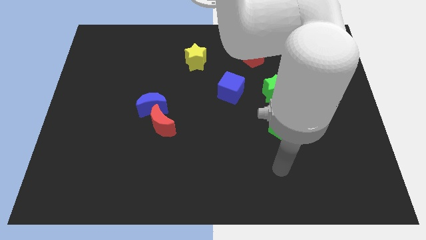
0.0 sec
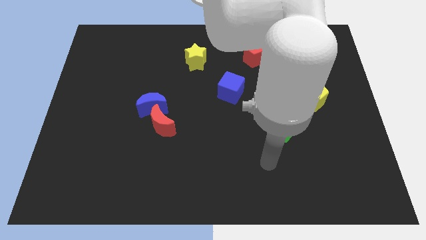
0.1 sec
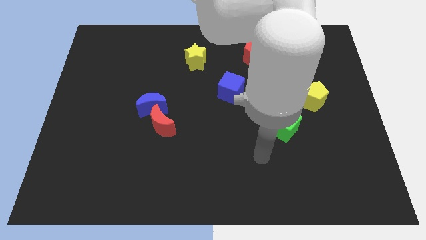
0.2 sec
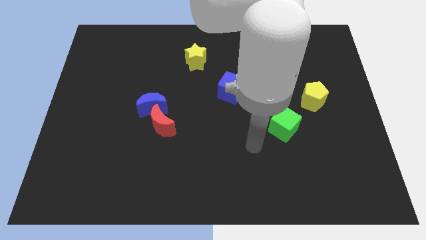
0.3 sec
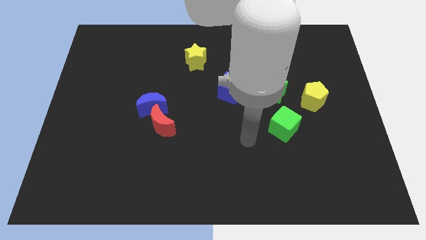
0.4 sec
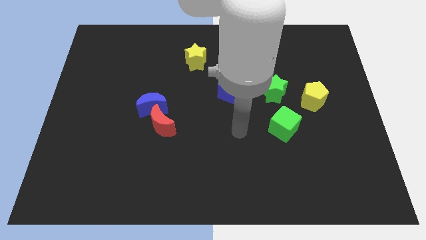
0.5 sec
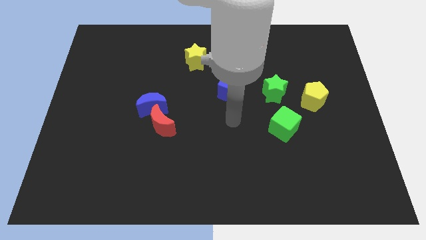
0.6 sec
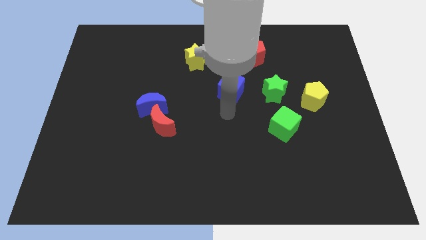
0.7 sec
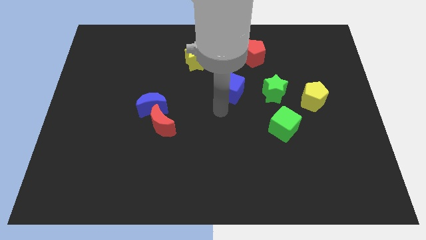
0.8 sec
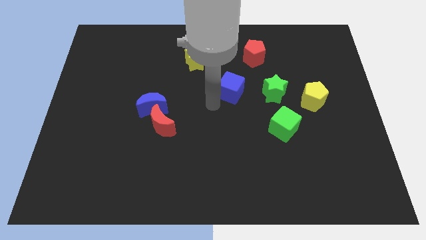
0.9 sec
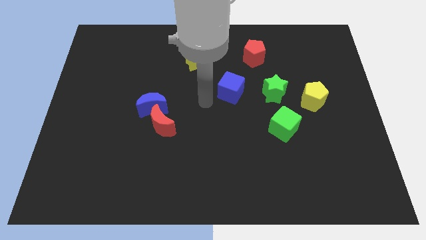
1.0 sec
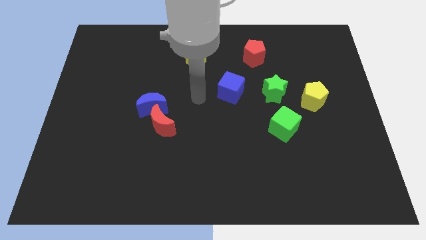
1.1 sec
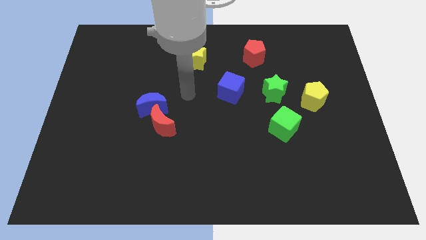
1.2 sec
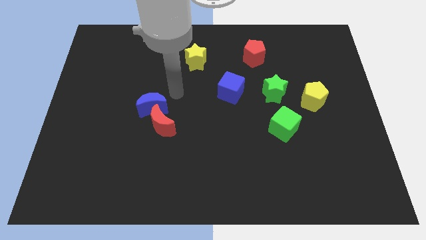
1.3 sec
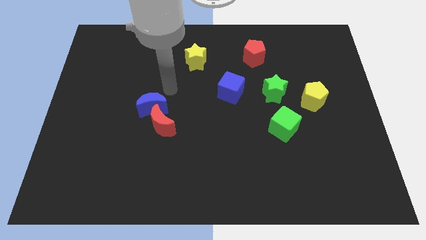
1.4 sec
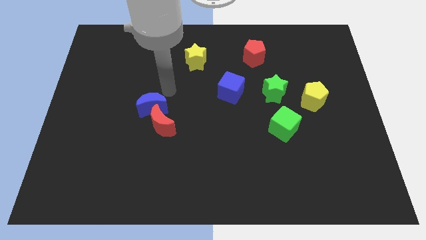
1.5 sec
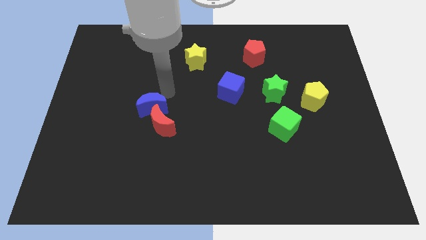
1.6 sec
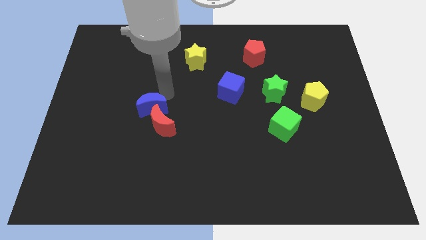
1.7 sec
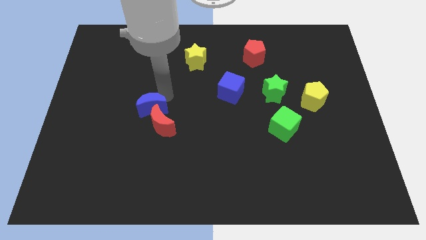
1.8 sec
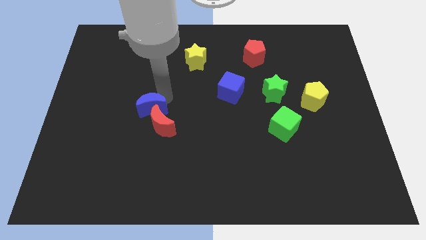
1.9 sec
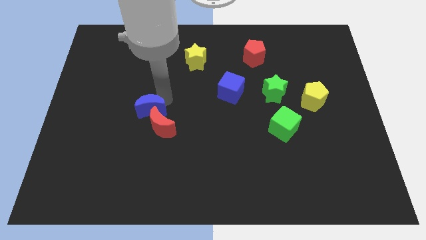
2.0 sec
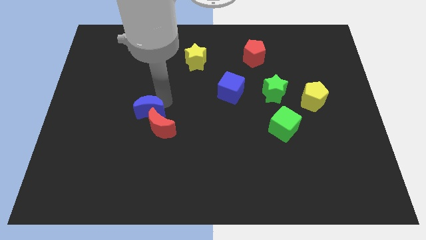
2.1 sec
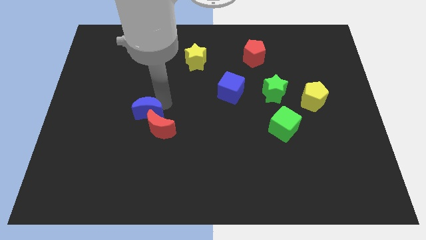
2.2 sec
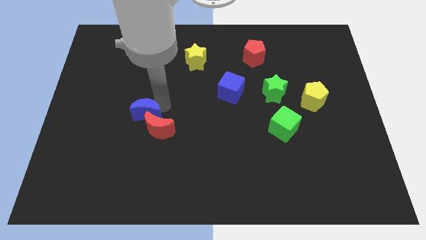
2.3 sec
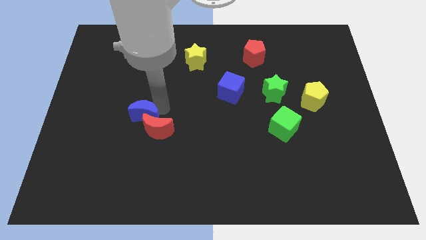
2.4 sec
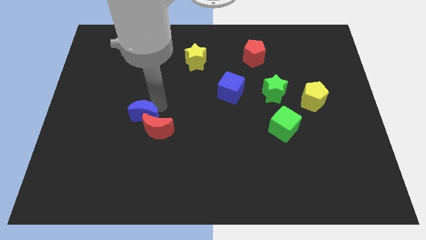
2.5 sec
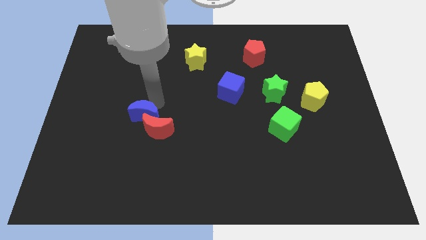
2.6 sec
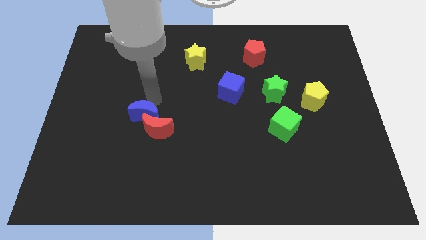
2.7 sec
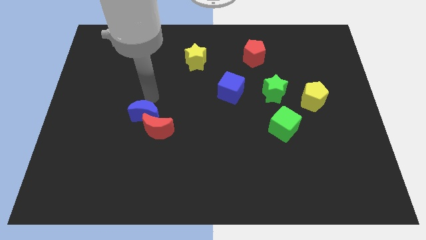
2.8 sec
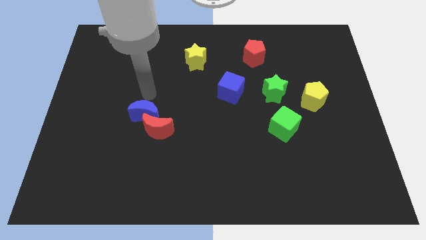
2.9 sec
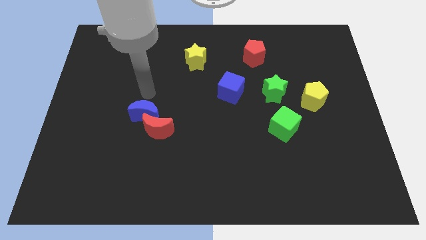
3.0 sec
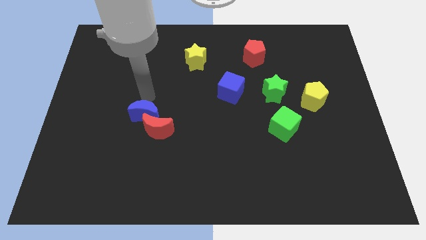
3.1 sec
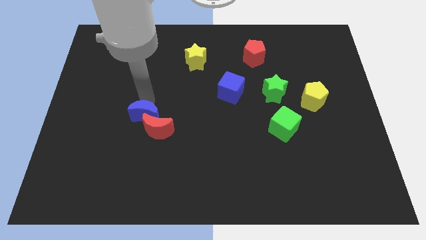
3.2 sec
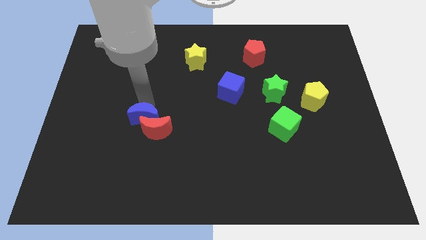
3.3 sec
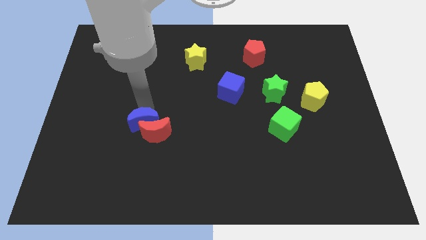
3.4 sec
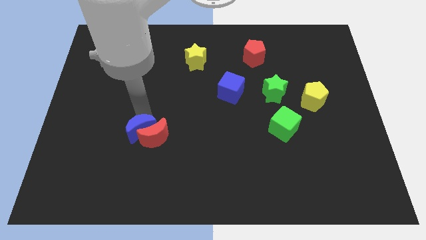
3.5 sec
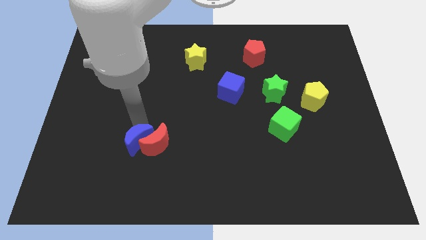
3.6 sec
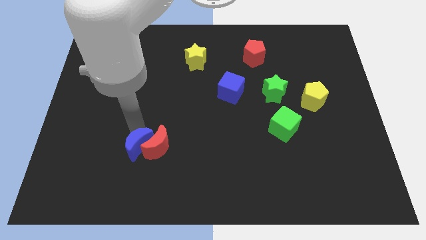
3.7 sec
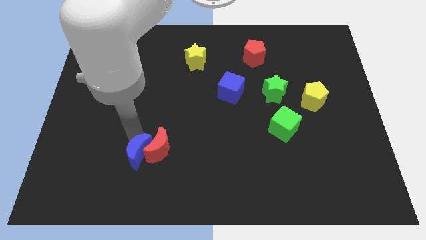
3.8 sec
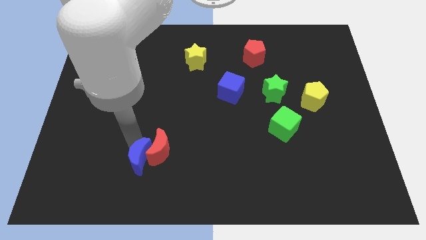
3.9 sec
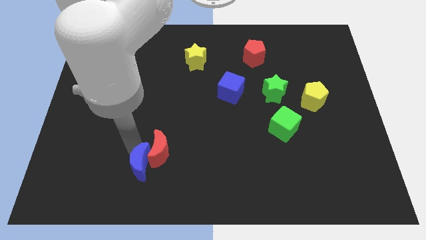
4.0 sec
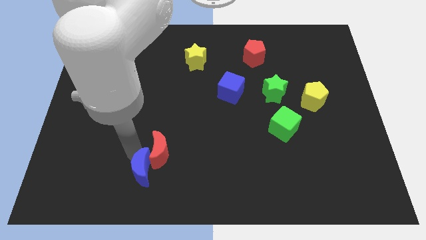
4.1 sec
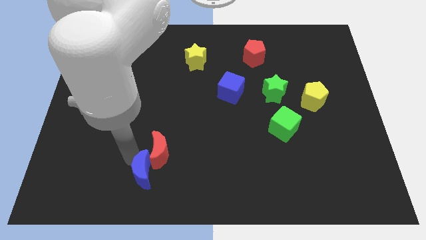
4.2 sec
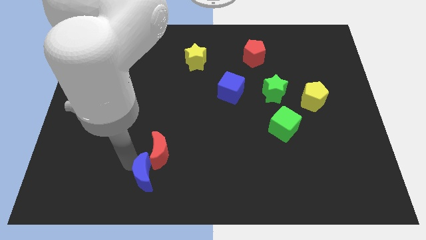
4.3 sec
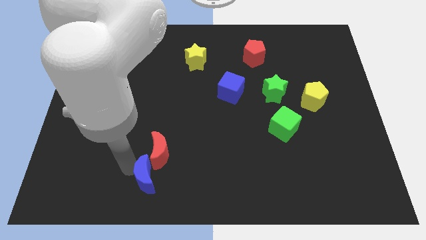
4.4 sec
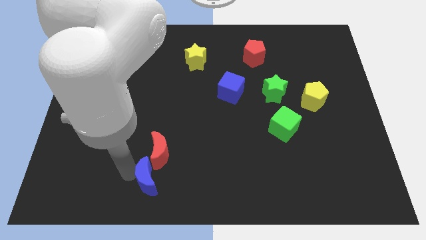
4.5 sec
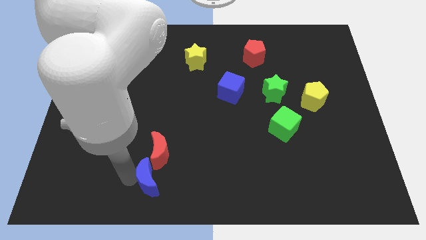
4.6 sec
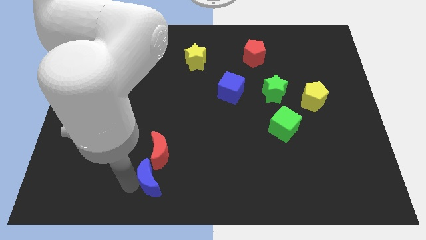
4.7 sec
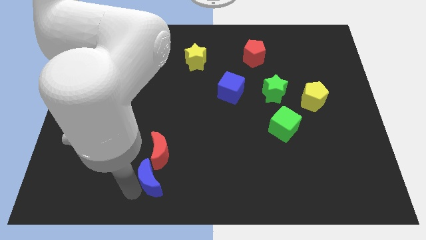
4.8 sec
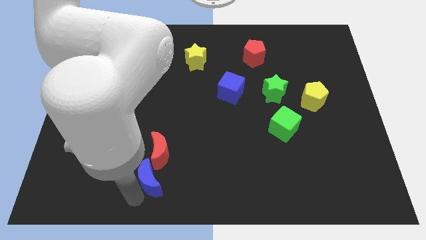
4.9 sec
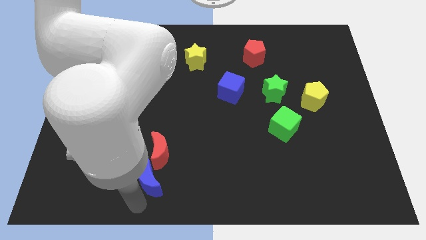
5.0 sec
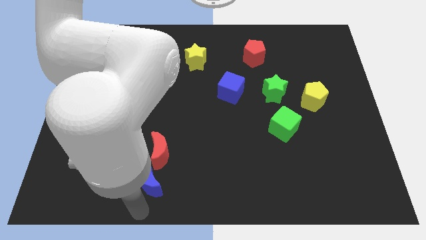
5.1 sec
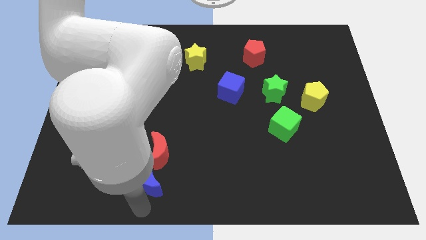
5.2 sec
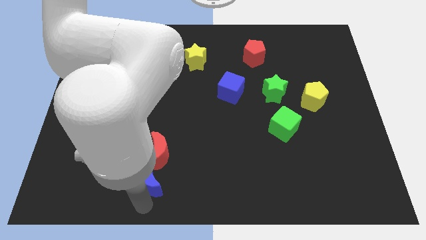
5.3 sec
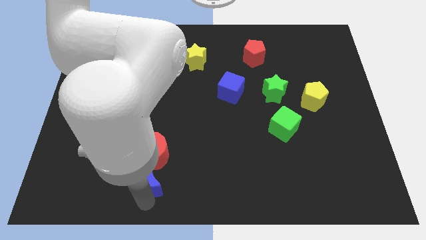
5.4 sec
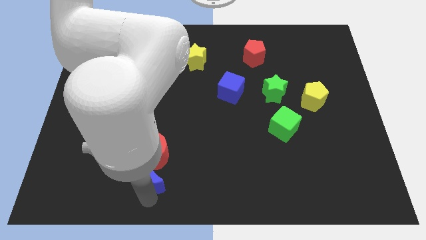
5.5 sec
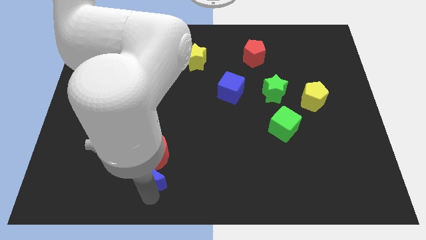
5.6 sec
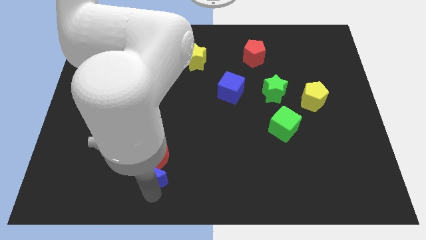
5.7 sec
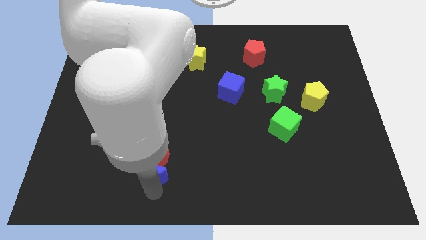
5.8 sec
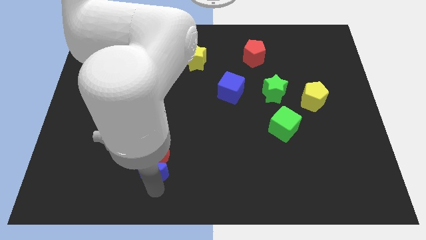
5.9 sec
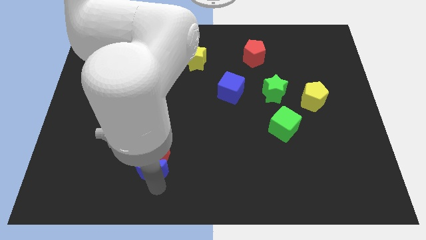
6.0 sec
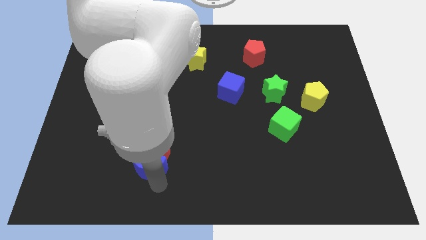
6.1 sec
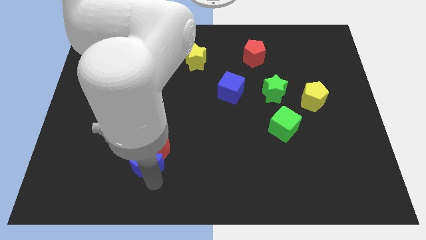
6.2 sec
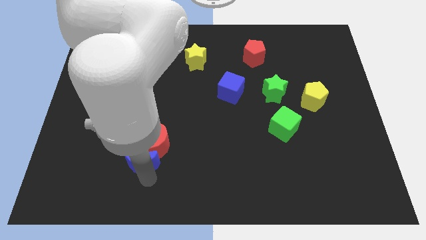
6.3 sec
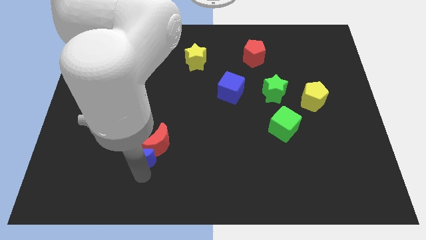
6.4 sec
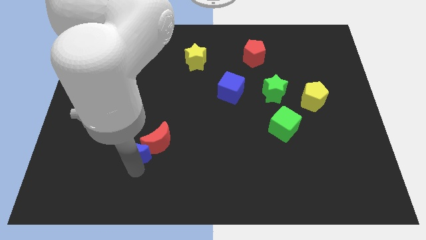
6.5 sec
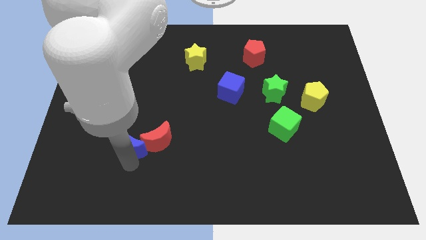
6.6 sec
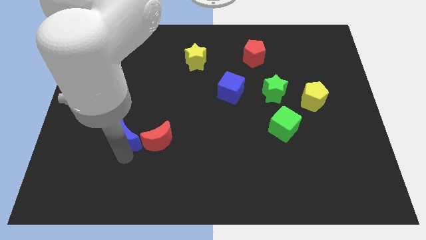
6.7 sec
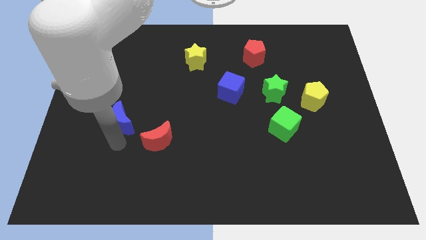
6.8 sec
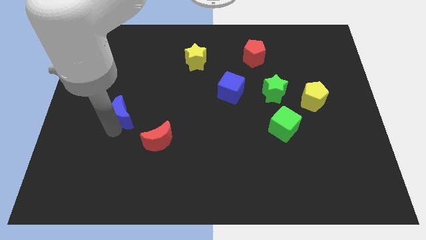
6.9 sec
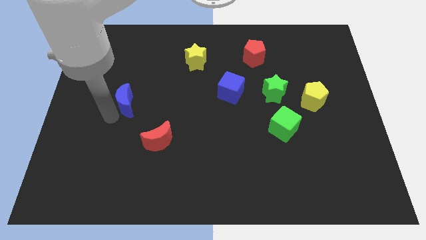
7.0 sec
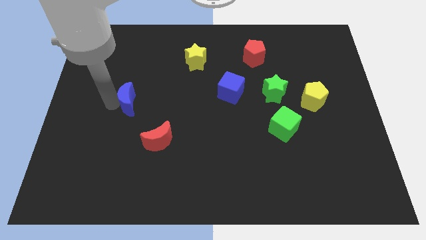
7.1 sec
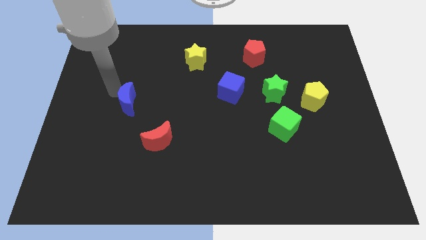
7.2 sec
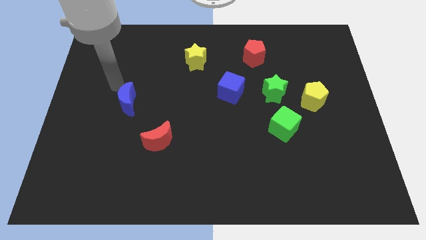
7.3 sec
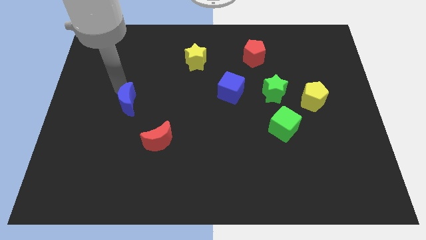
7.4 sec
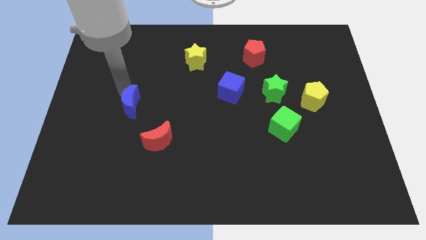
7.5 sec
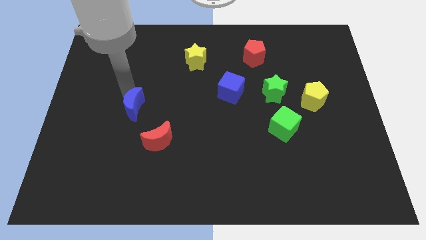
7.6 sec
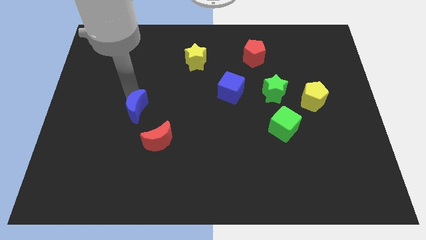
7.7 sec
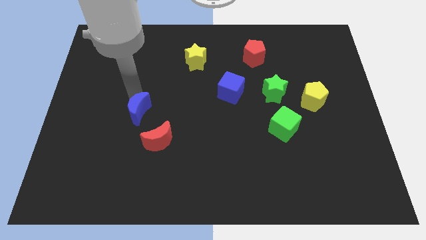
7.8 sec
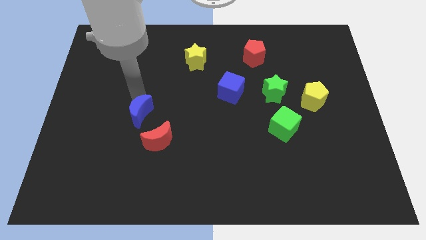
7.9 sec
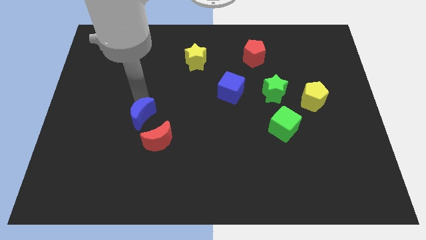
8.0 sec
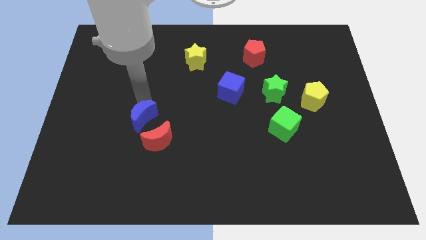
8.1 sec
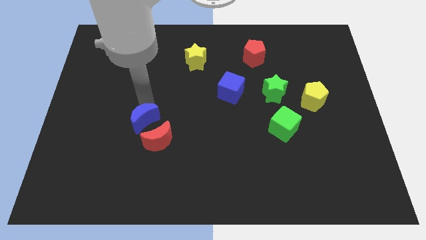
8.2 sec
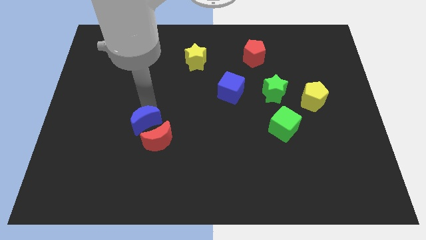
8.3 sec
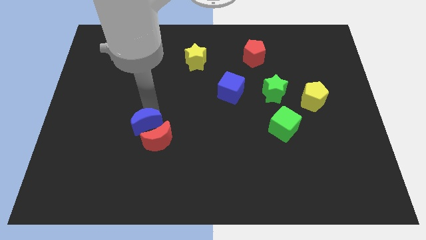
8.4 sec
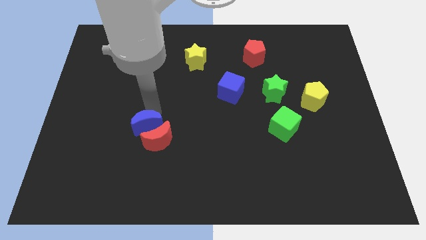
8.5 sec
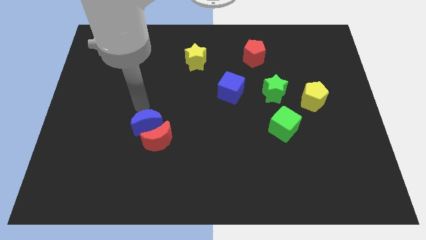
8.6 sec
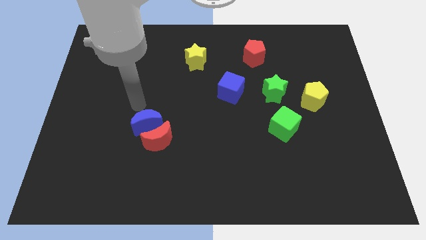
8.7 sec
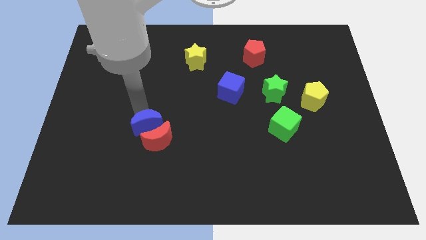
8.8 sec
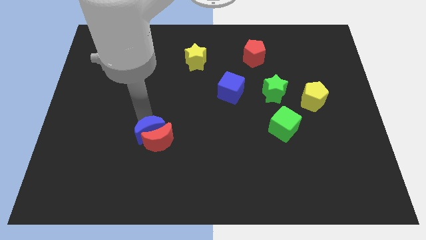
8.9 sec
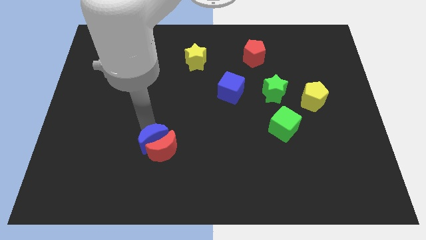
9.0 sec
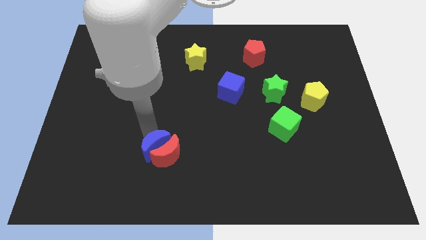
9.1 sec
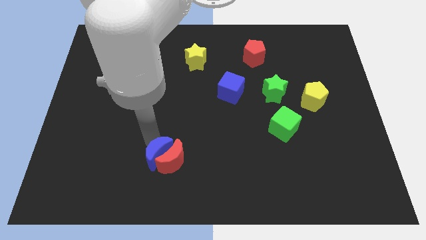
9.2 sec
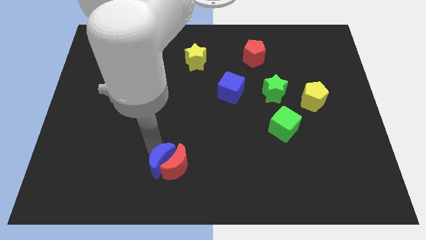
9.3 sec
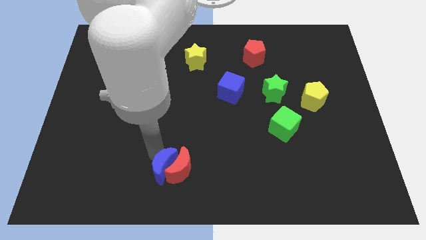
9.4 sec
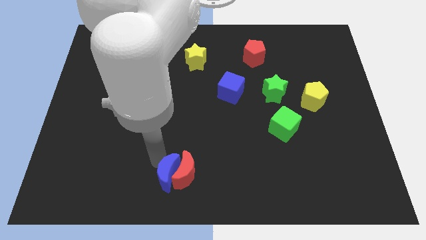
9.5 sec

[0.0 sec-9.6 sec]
push the blue moon to the bottom side
